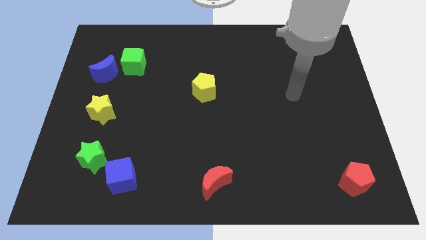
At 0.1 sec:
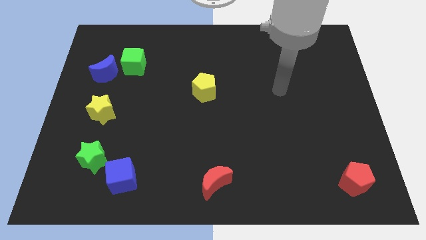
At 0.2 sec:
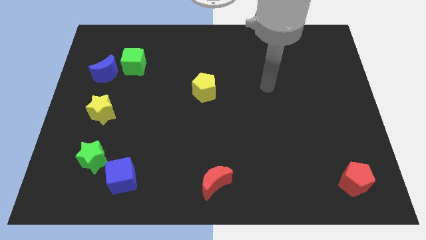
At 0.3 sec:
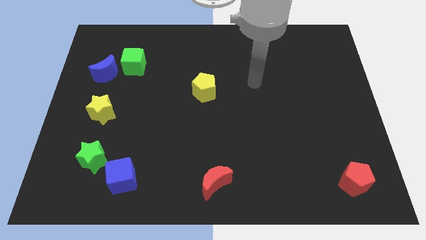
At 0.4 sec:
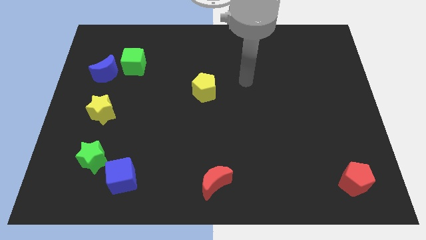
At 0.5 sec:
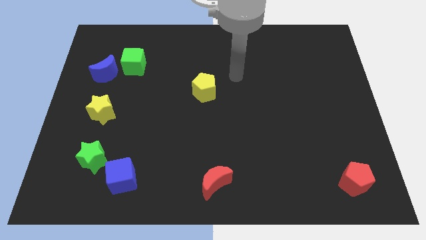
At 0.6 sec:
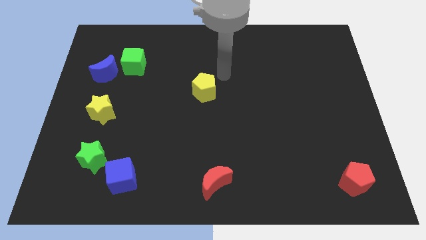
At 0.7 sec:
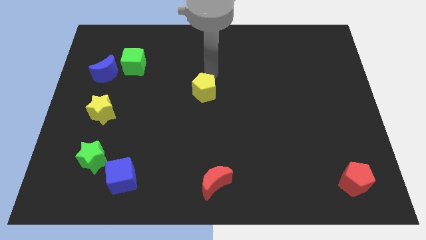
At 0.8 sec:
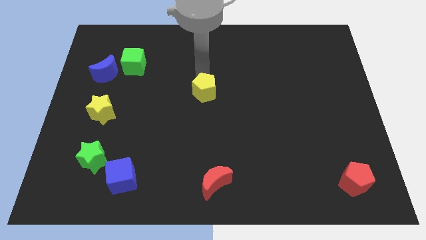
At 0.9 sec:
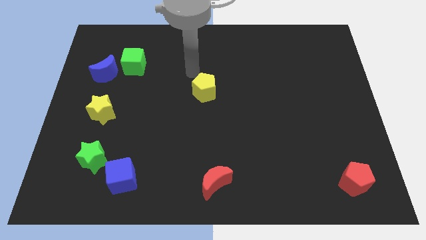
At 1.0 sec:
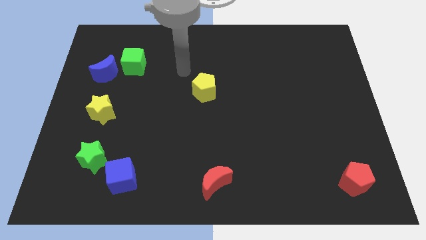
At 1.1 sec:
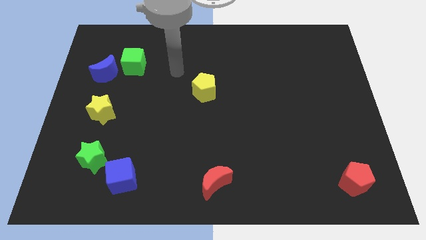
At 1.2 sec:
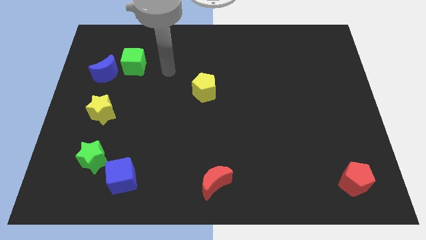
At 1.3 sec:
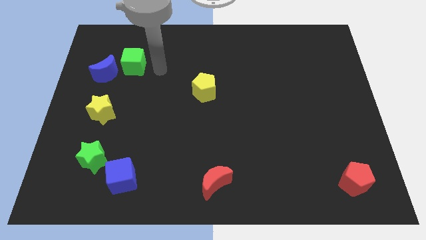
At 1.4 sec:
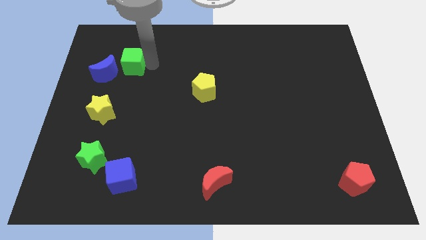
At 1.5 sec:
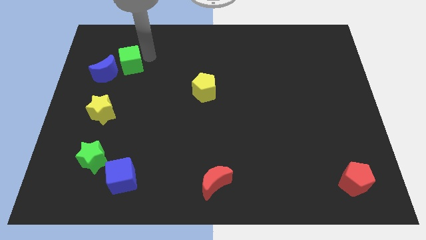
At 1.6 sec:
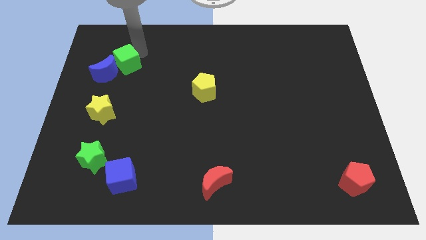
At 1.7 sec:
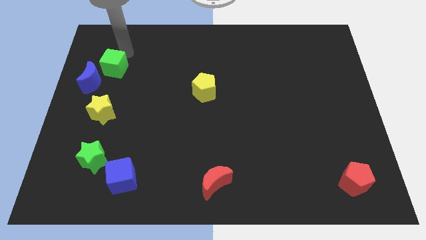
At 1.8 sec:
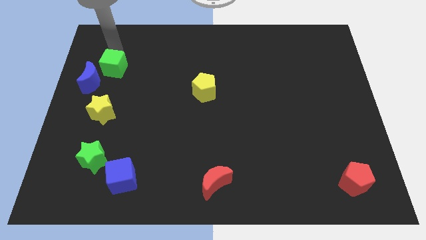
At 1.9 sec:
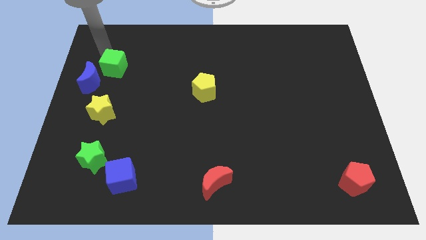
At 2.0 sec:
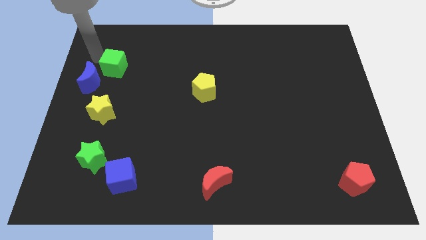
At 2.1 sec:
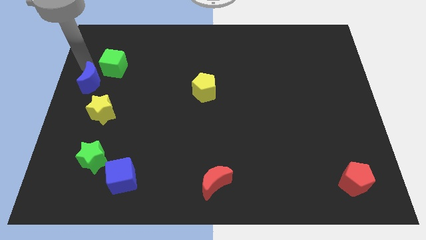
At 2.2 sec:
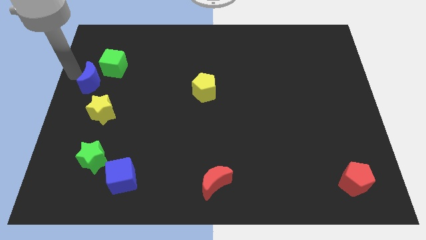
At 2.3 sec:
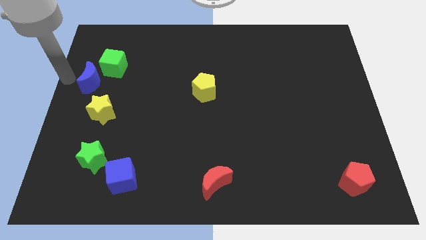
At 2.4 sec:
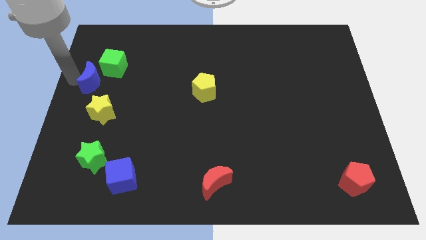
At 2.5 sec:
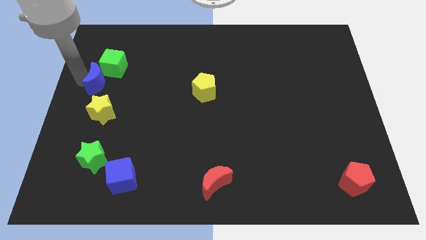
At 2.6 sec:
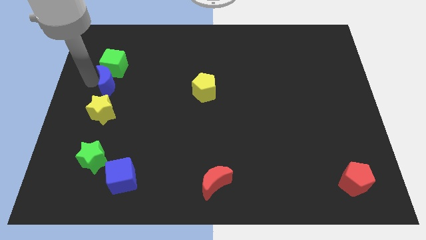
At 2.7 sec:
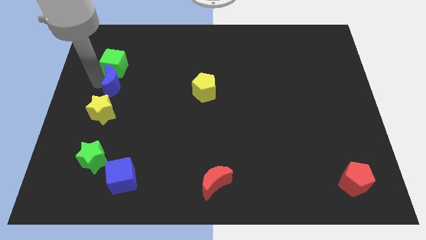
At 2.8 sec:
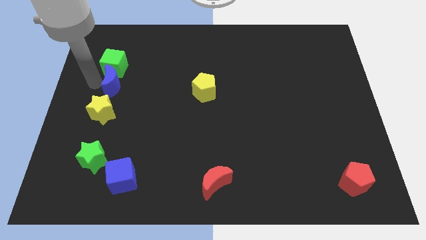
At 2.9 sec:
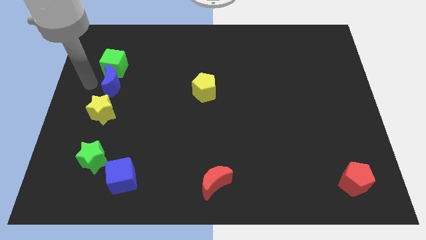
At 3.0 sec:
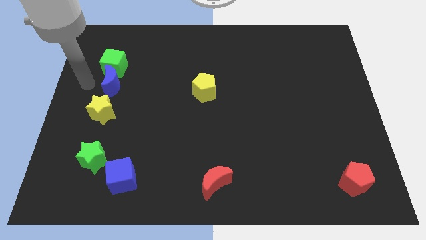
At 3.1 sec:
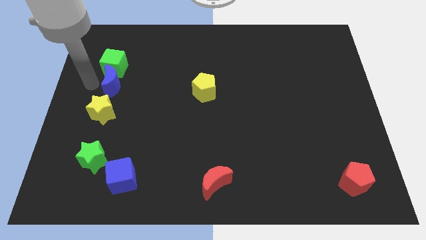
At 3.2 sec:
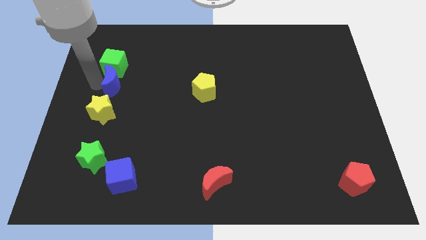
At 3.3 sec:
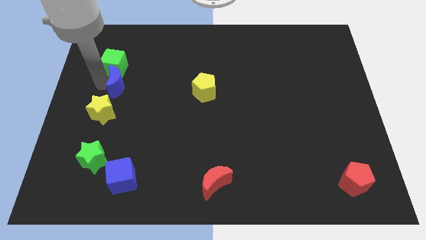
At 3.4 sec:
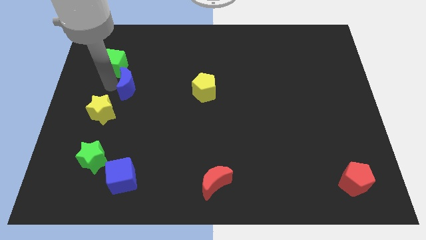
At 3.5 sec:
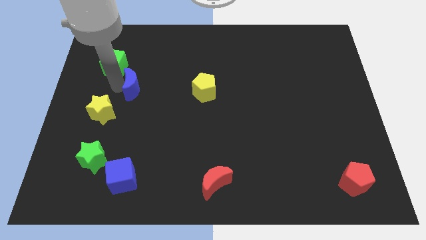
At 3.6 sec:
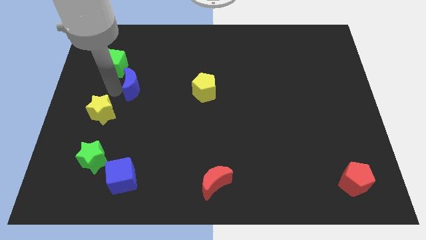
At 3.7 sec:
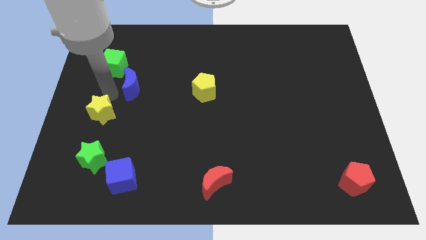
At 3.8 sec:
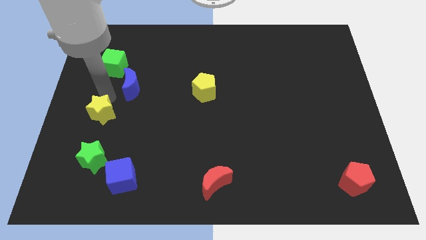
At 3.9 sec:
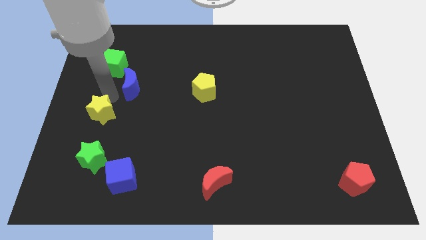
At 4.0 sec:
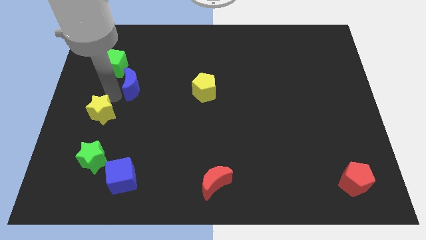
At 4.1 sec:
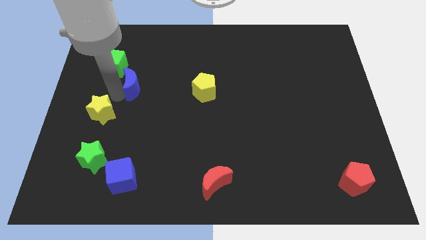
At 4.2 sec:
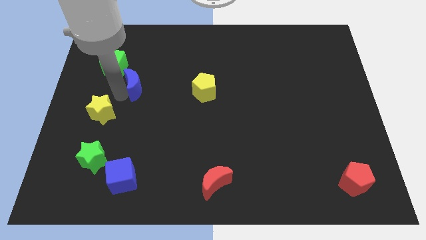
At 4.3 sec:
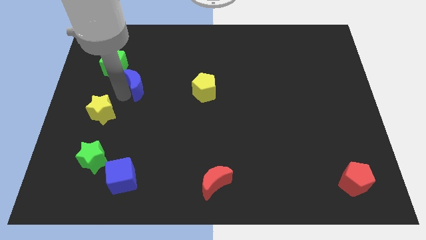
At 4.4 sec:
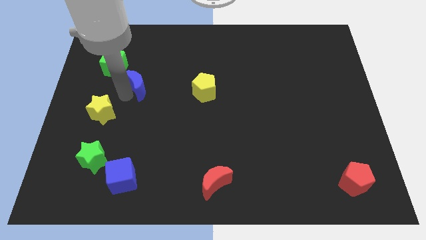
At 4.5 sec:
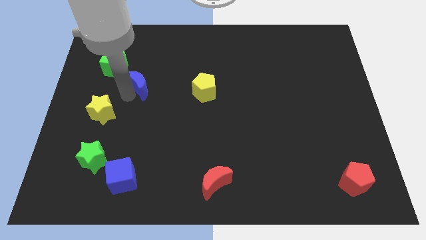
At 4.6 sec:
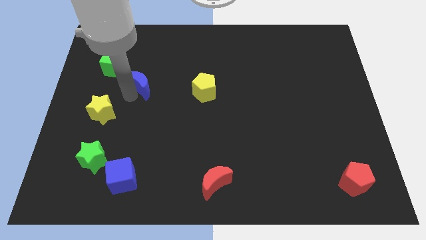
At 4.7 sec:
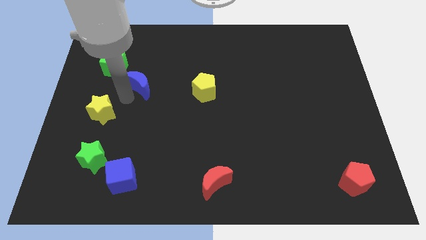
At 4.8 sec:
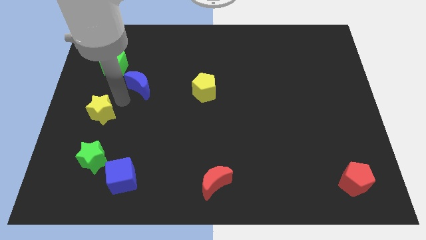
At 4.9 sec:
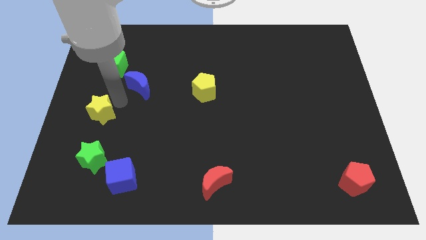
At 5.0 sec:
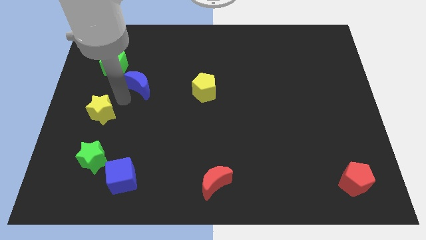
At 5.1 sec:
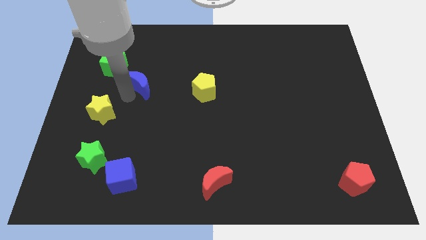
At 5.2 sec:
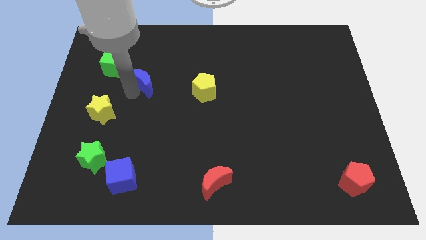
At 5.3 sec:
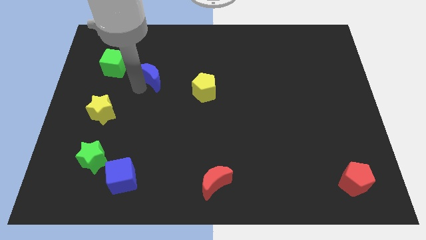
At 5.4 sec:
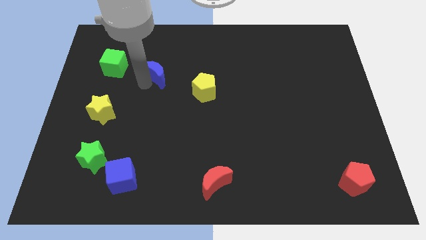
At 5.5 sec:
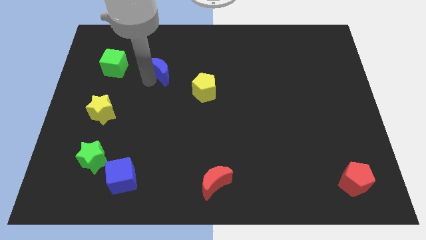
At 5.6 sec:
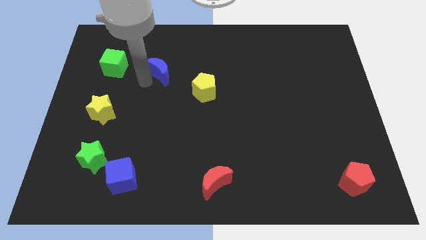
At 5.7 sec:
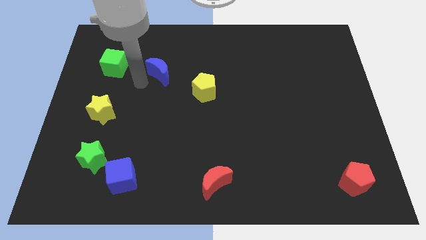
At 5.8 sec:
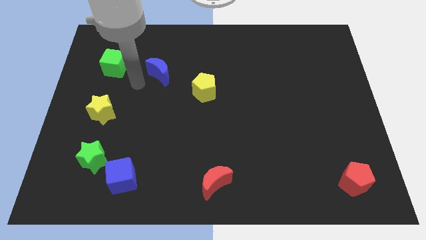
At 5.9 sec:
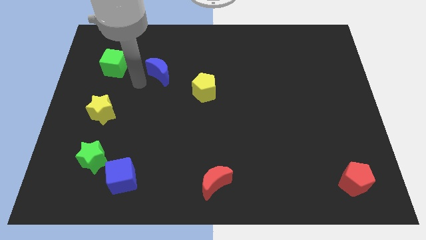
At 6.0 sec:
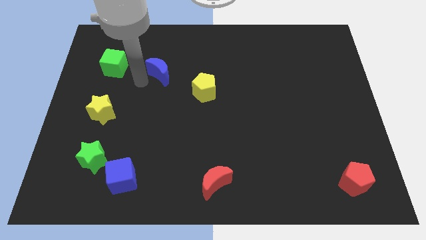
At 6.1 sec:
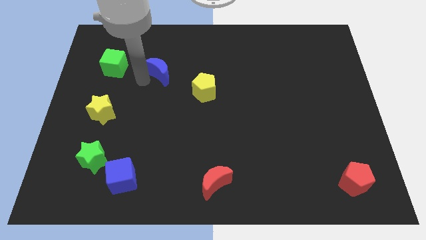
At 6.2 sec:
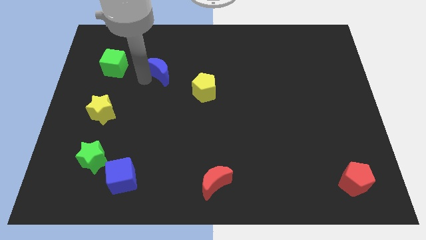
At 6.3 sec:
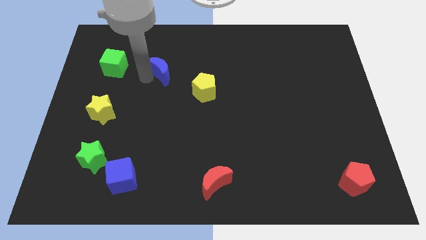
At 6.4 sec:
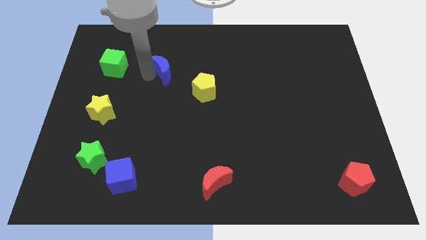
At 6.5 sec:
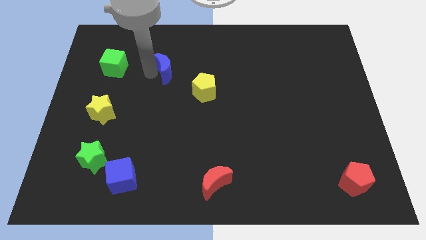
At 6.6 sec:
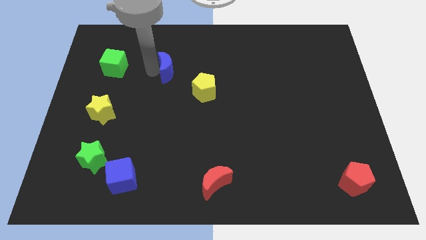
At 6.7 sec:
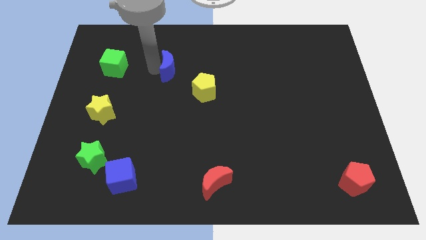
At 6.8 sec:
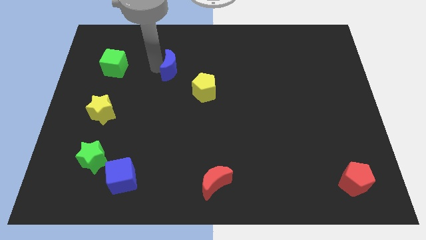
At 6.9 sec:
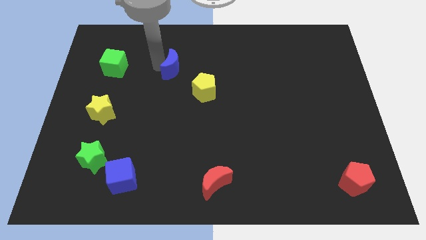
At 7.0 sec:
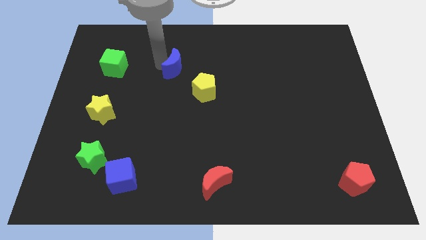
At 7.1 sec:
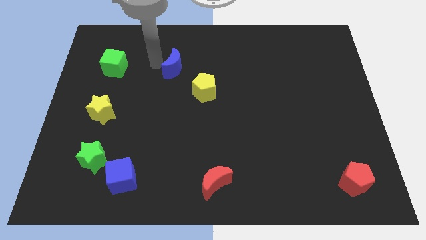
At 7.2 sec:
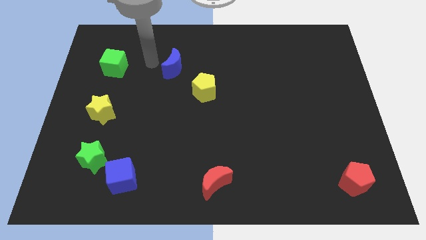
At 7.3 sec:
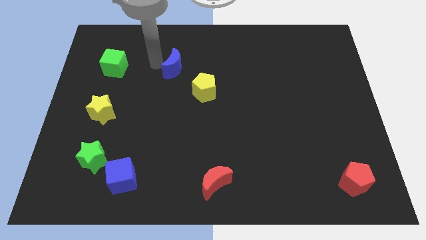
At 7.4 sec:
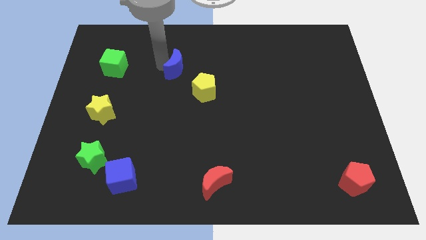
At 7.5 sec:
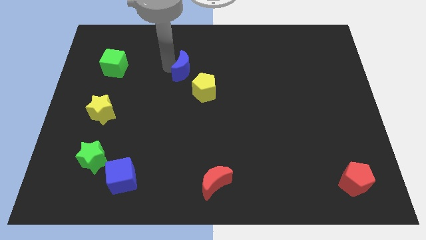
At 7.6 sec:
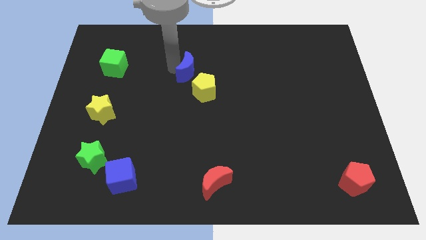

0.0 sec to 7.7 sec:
push the blue moon right
